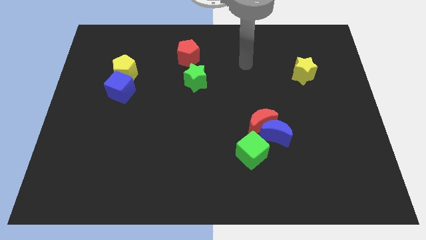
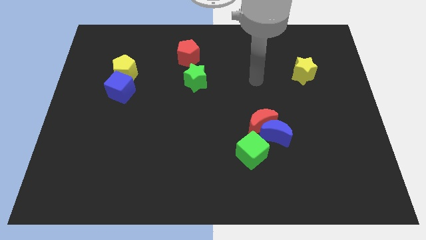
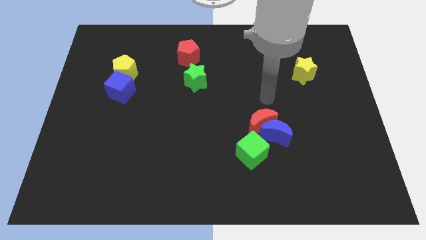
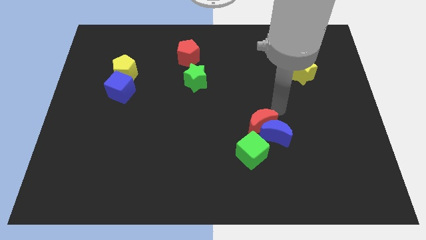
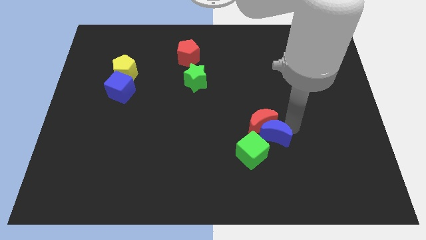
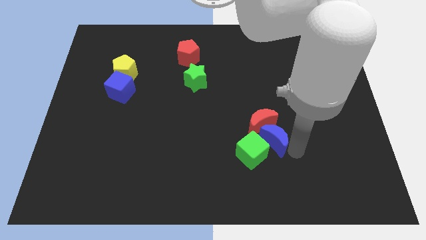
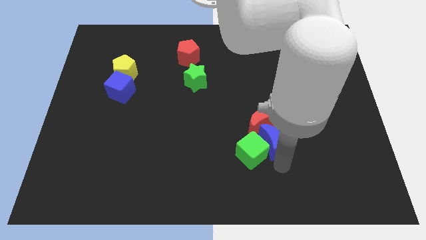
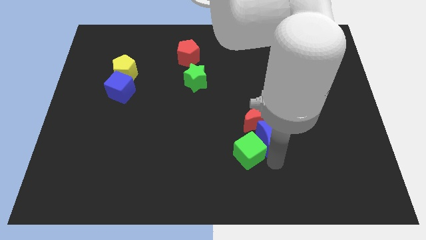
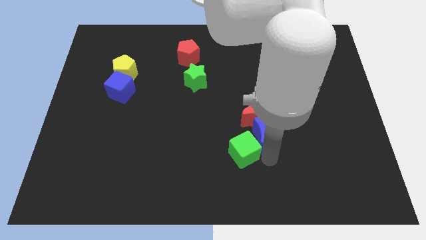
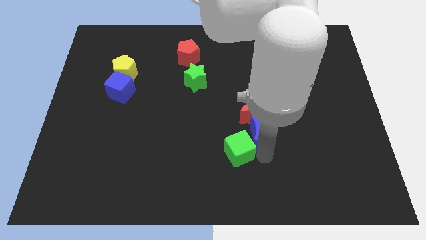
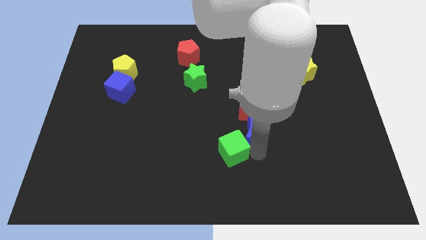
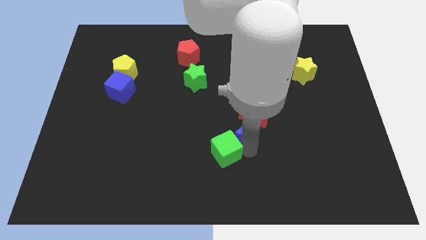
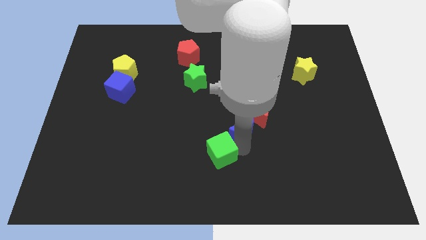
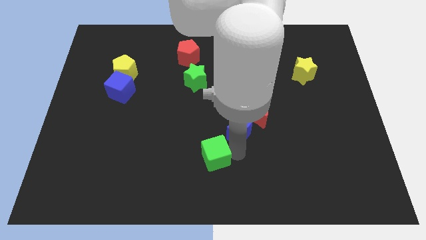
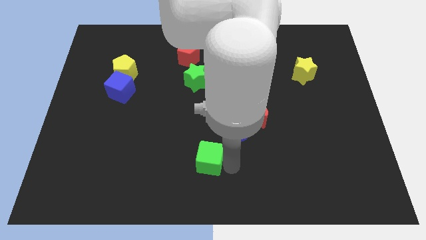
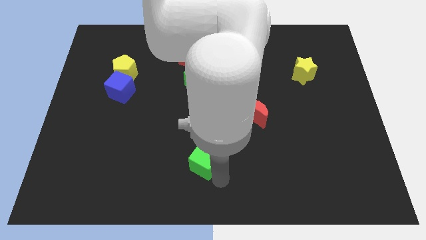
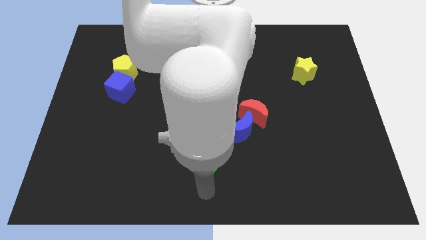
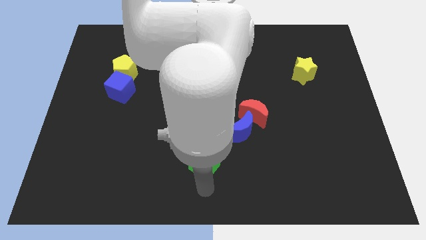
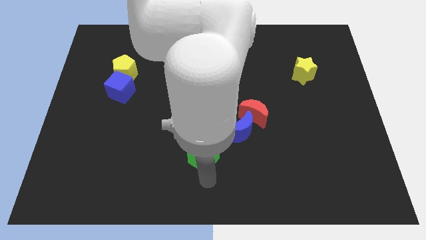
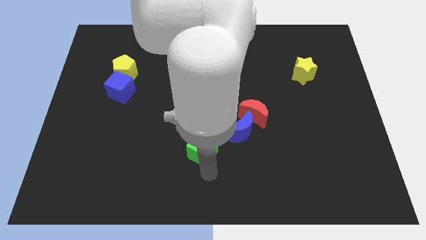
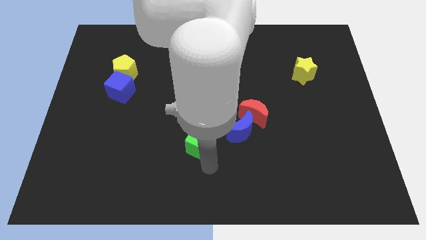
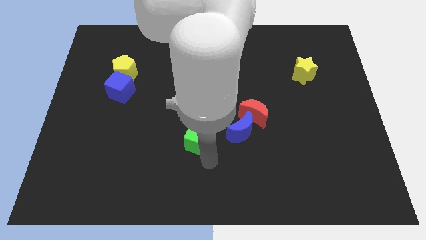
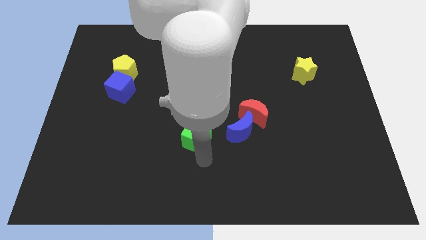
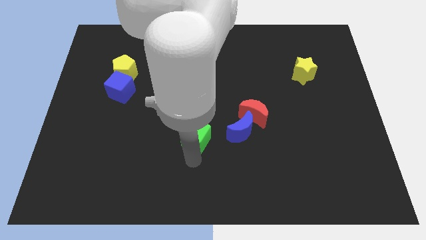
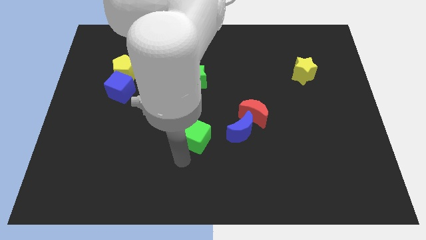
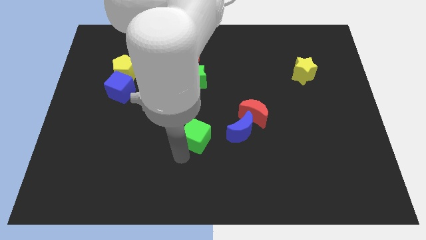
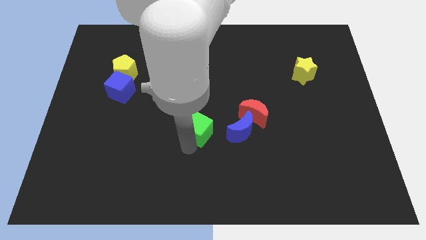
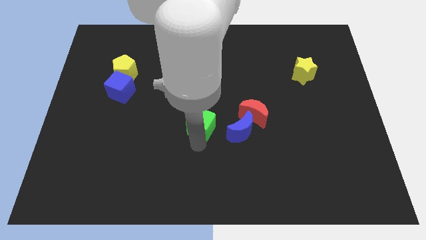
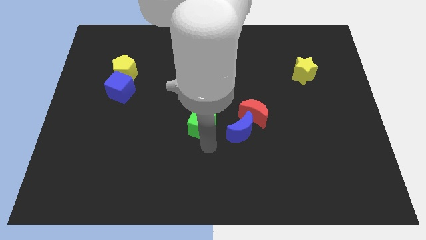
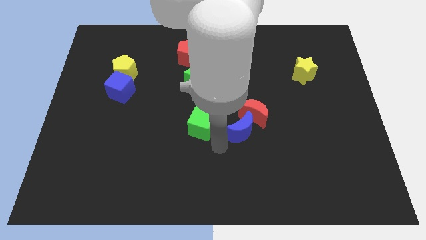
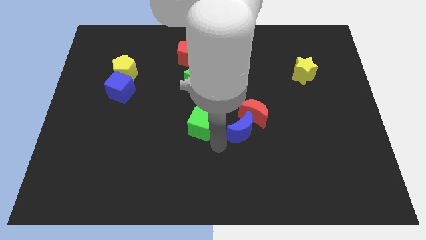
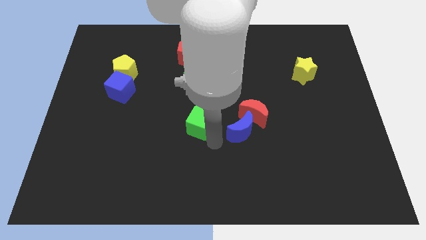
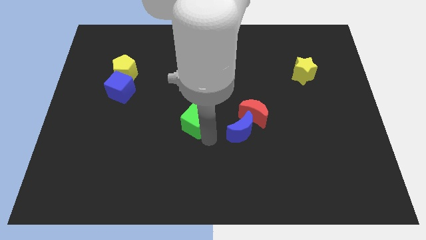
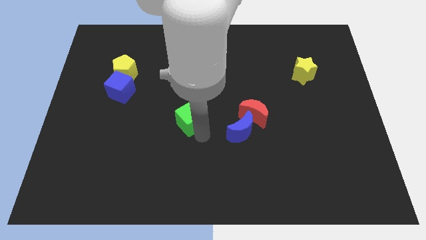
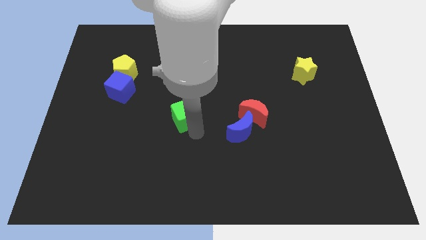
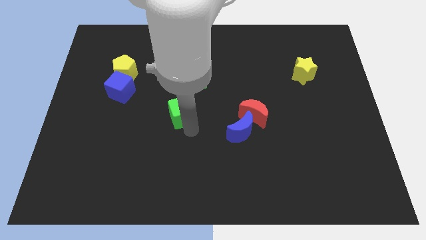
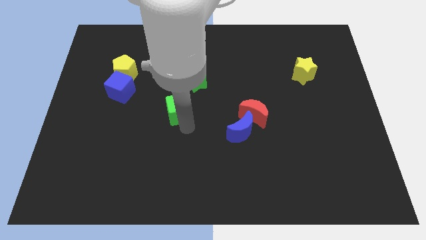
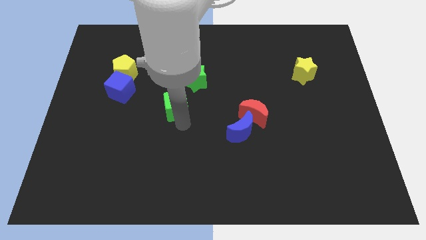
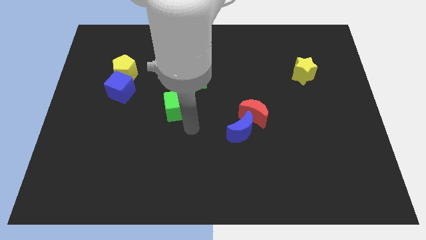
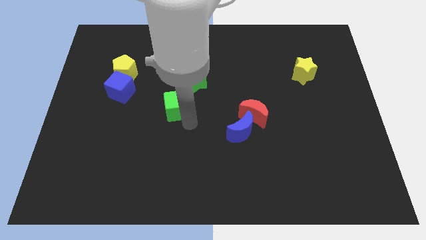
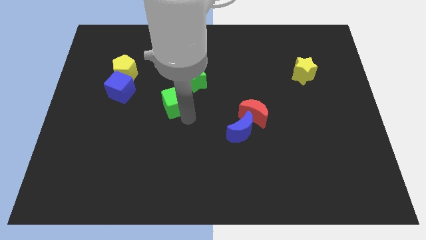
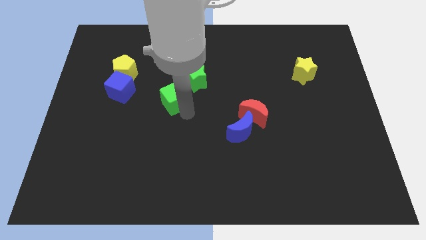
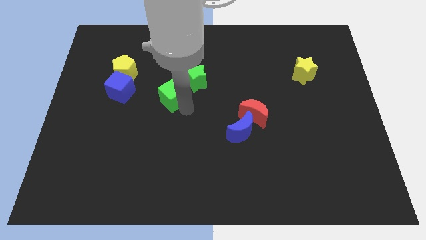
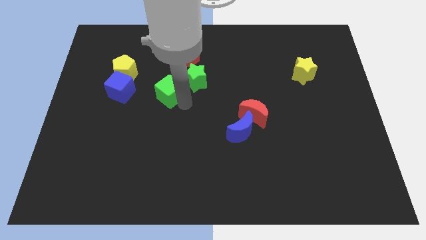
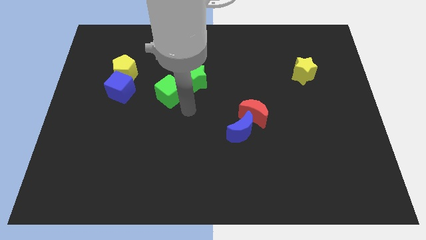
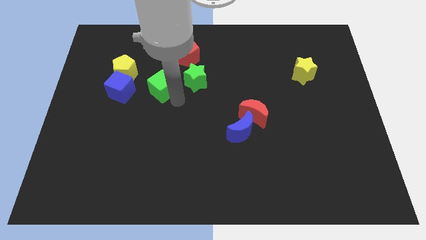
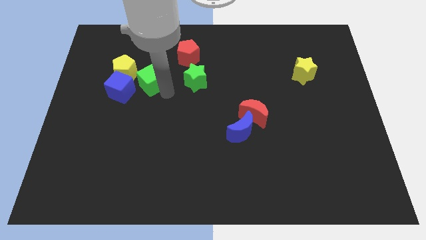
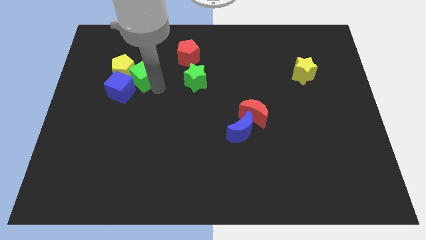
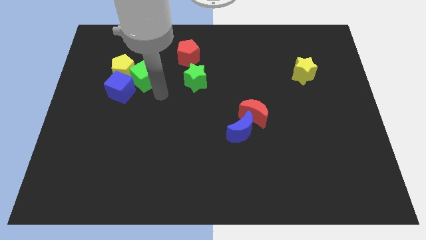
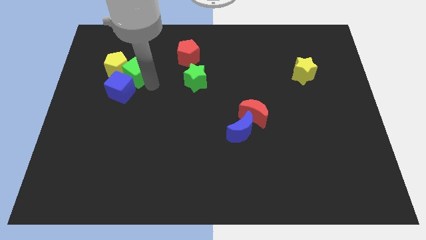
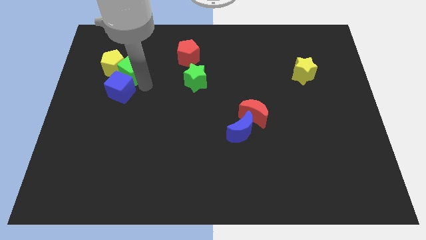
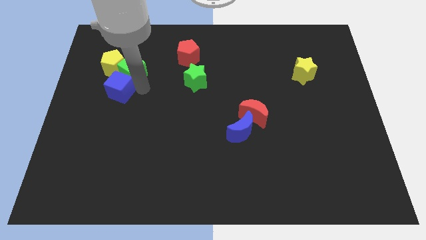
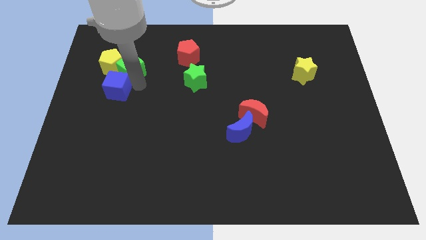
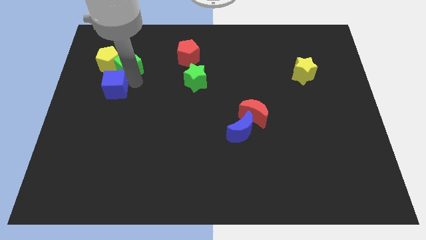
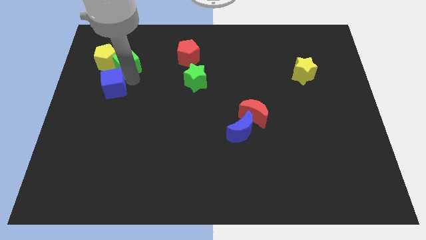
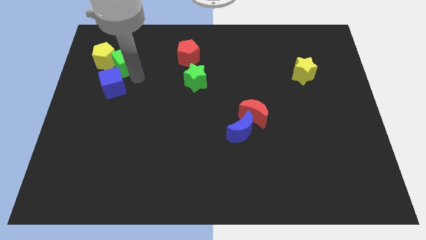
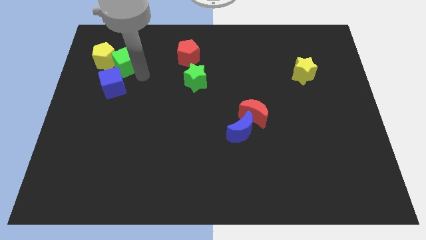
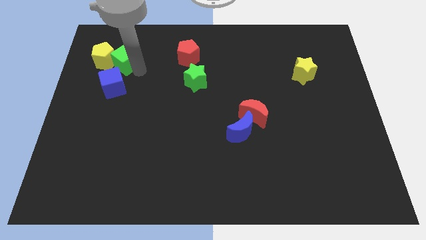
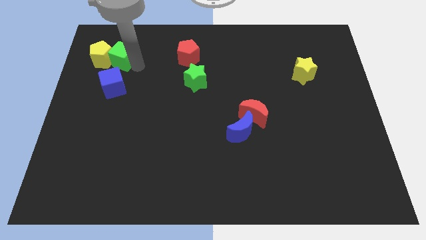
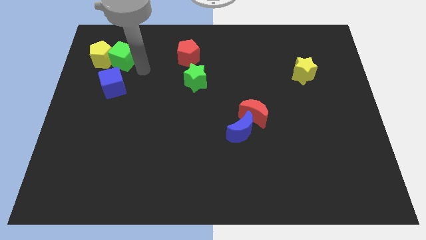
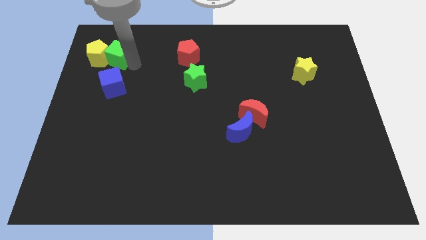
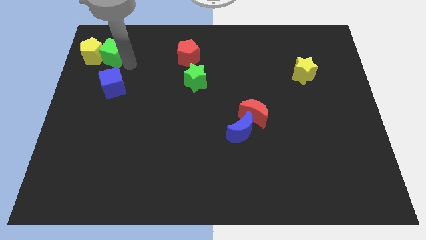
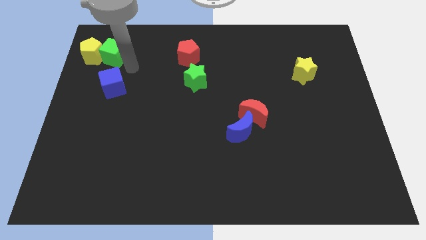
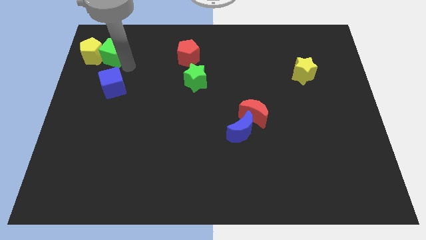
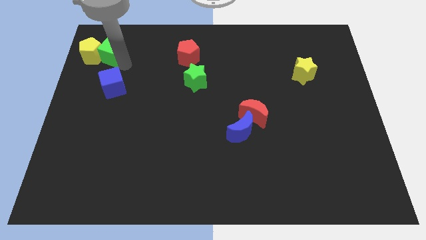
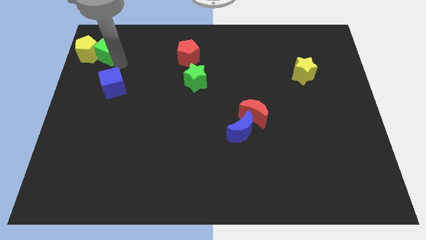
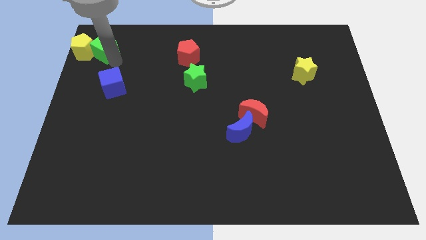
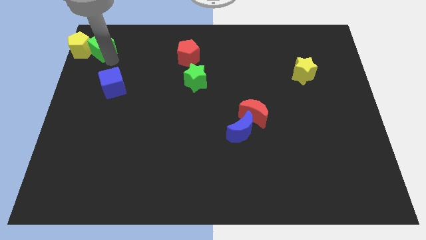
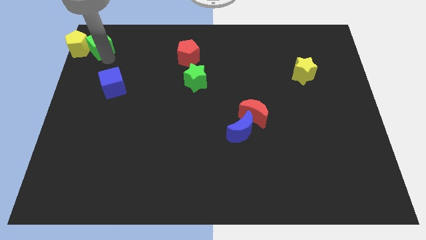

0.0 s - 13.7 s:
slide the green cube to the top left
